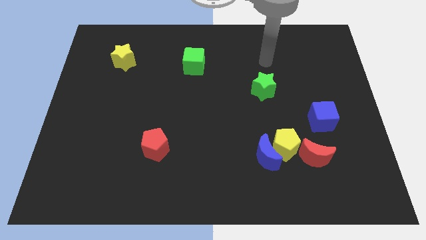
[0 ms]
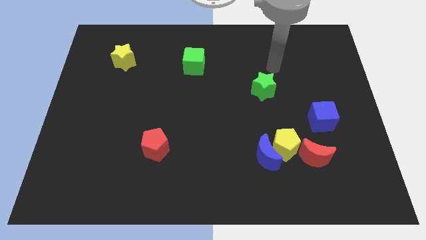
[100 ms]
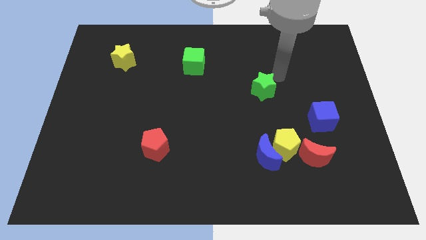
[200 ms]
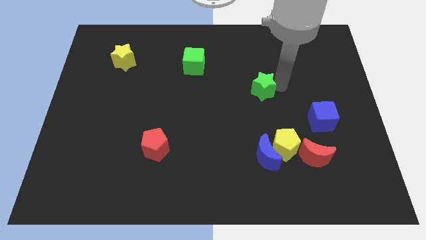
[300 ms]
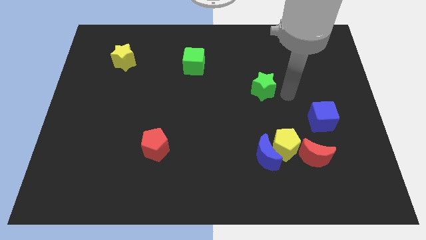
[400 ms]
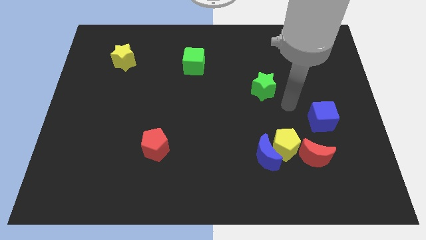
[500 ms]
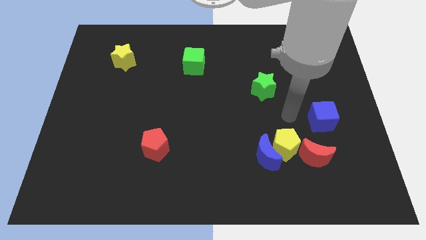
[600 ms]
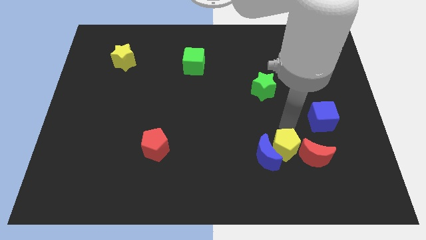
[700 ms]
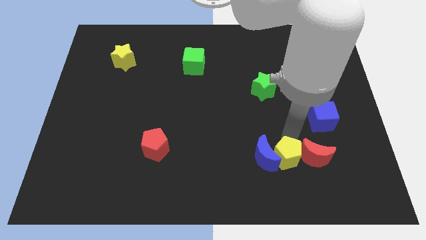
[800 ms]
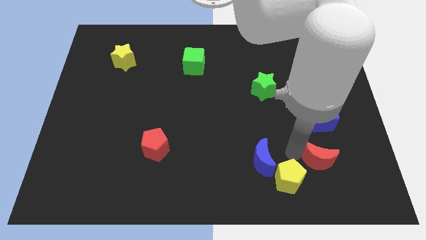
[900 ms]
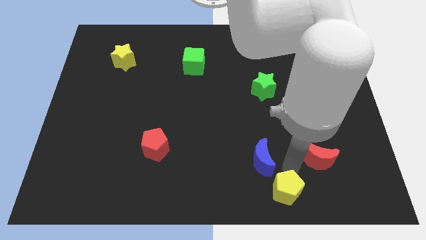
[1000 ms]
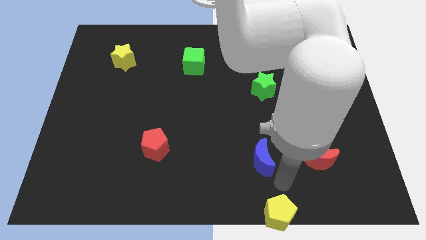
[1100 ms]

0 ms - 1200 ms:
pull the blue moon apart from the yellow pentagon

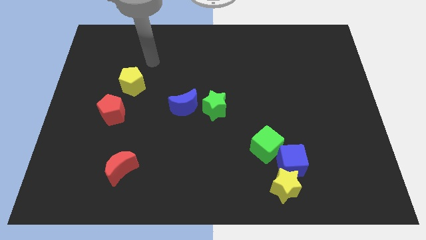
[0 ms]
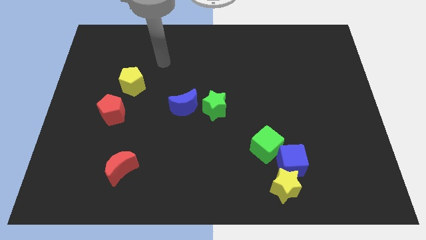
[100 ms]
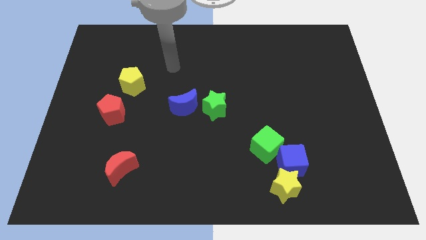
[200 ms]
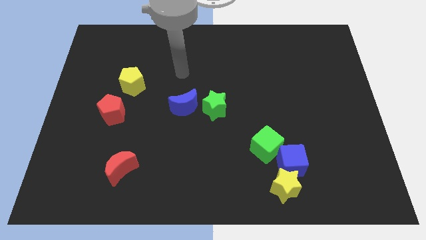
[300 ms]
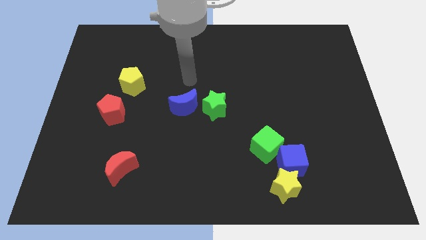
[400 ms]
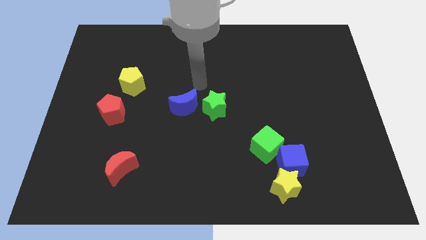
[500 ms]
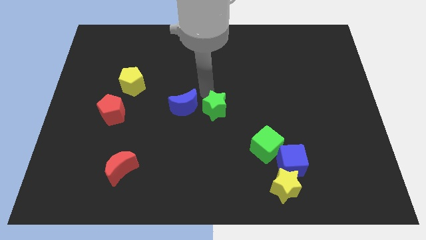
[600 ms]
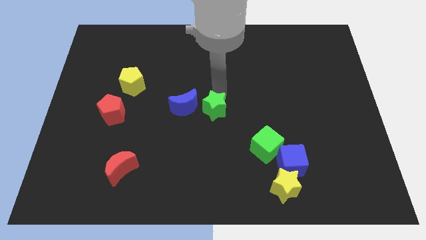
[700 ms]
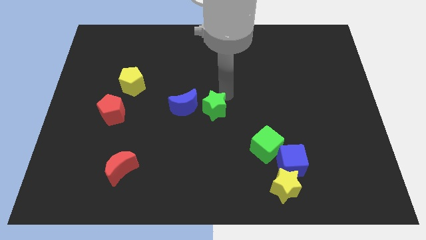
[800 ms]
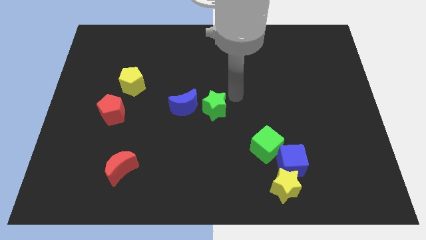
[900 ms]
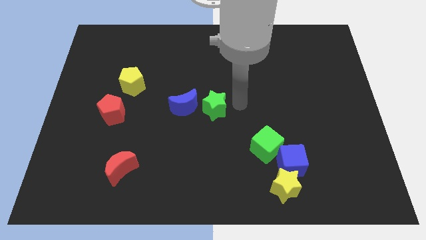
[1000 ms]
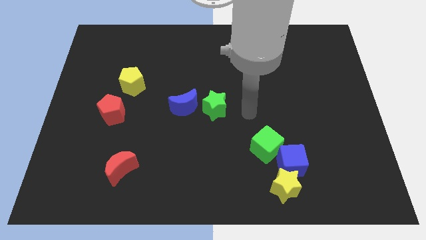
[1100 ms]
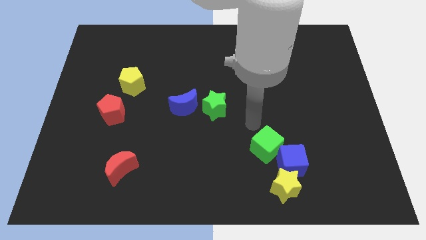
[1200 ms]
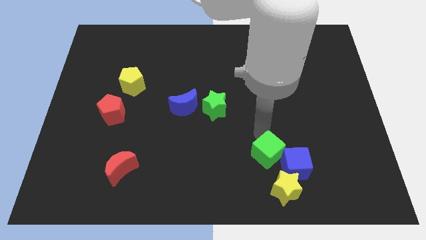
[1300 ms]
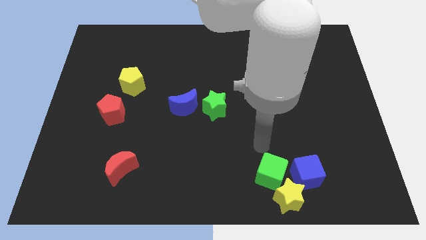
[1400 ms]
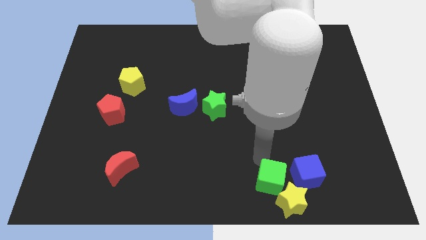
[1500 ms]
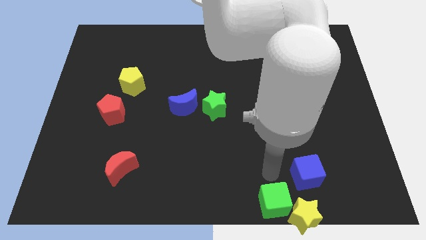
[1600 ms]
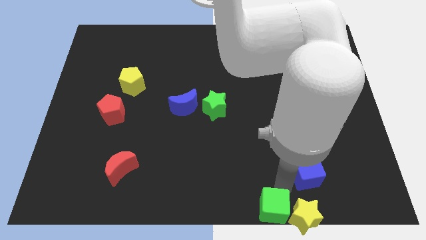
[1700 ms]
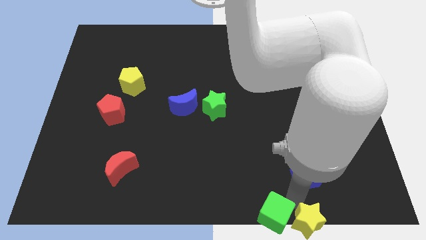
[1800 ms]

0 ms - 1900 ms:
move the blue cube away from the yellow star and green cube

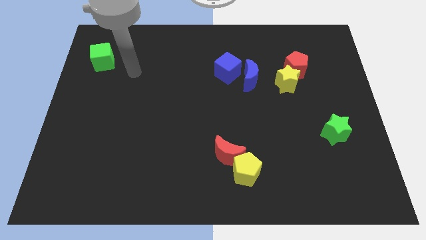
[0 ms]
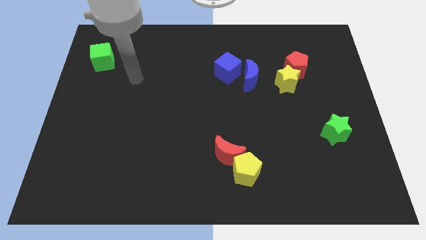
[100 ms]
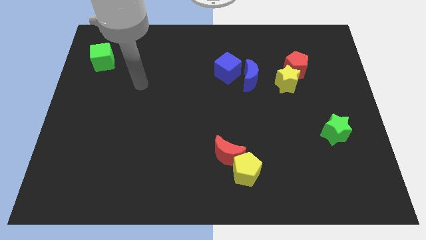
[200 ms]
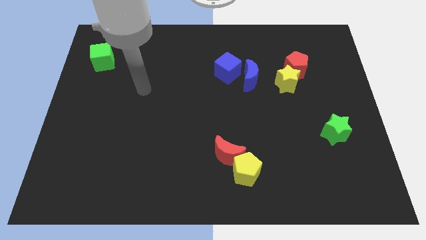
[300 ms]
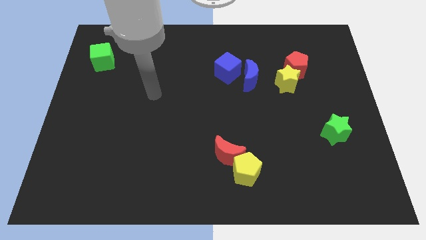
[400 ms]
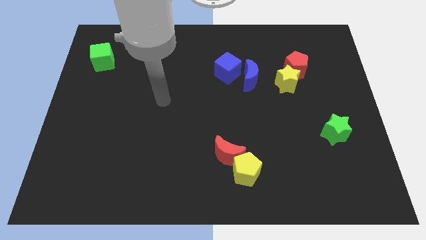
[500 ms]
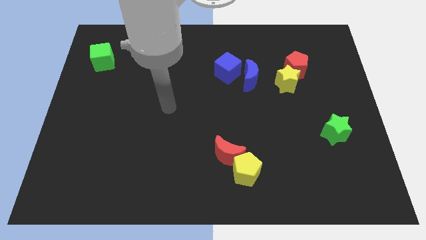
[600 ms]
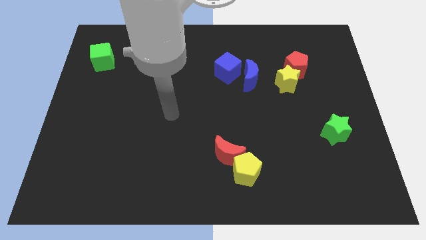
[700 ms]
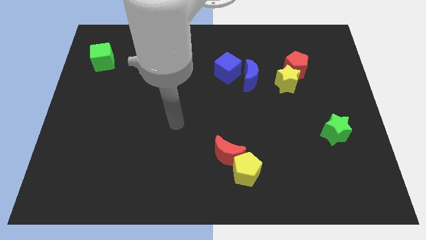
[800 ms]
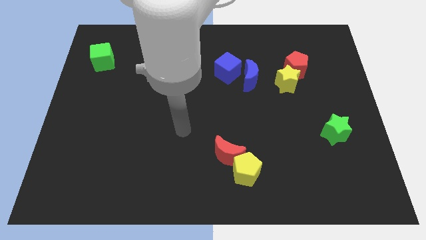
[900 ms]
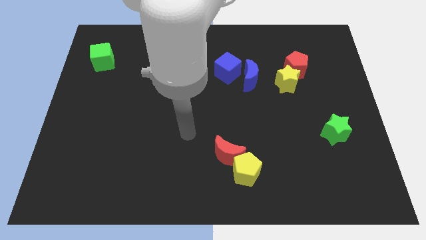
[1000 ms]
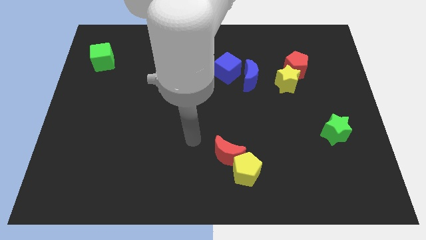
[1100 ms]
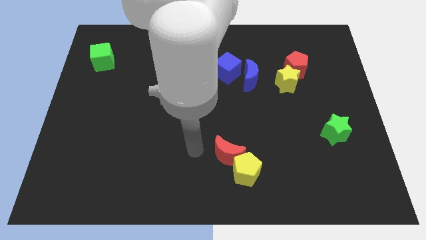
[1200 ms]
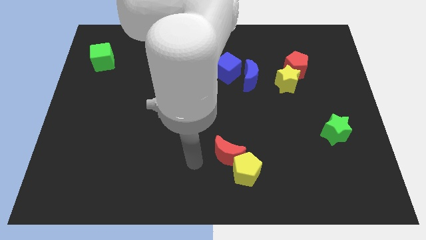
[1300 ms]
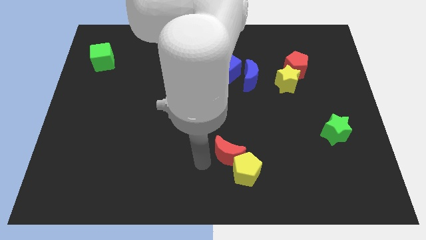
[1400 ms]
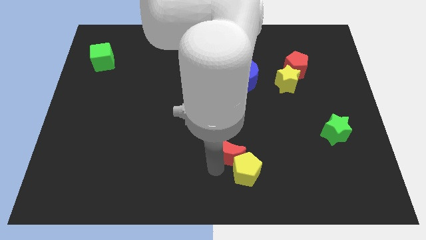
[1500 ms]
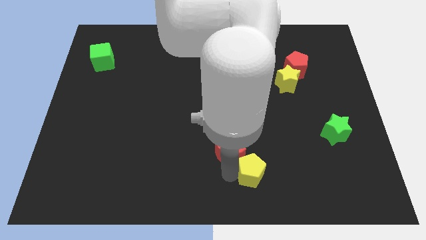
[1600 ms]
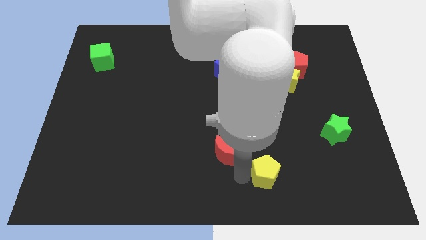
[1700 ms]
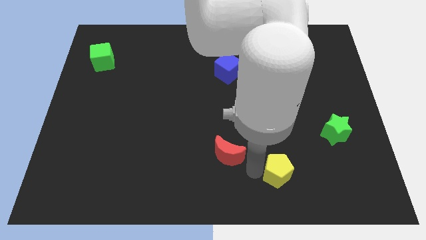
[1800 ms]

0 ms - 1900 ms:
pull the red moon apart from the yellow pentagon

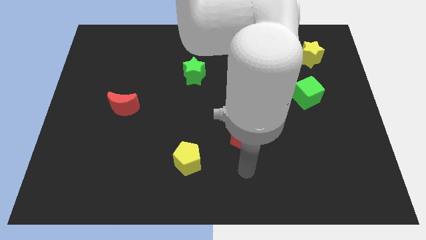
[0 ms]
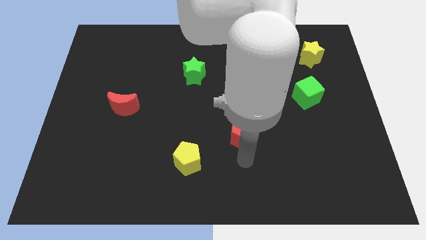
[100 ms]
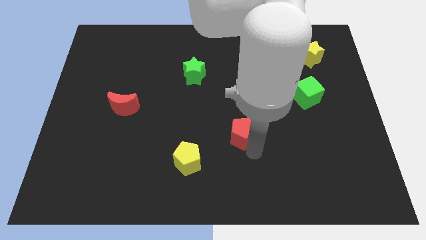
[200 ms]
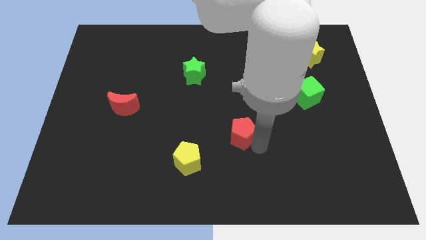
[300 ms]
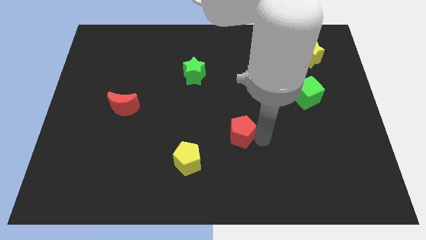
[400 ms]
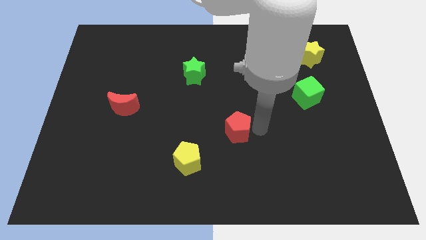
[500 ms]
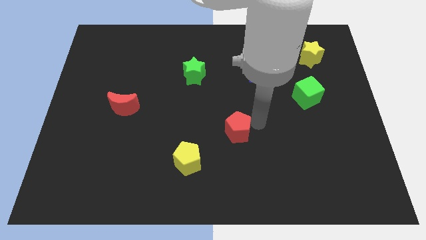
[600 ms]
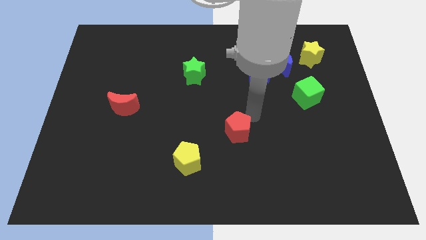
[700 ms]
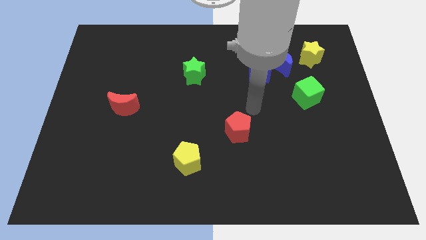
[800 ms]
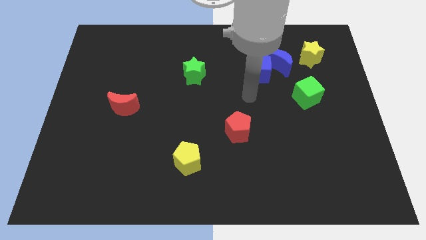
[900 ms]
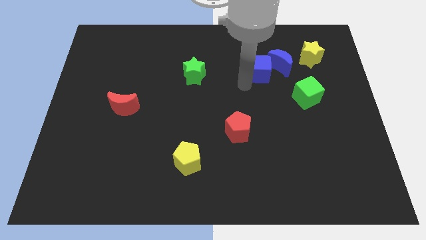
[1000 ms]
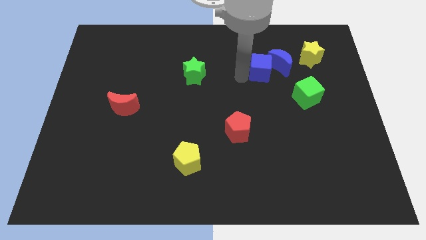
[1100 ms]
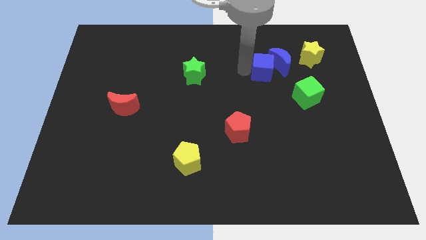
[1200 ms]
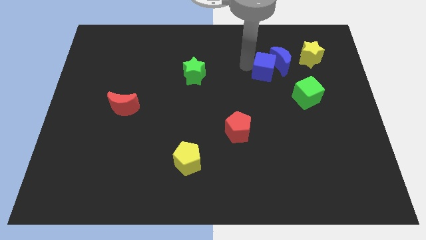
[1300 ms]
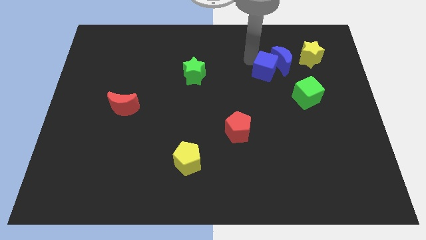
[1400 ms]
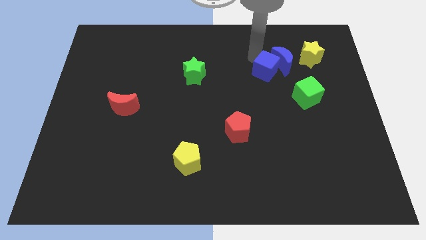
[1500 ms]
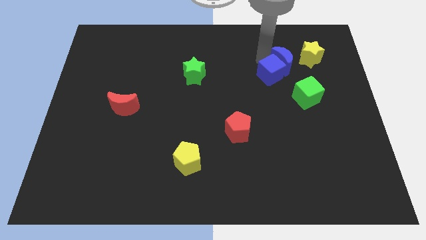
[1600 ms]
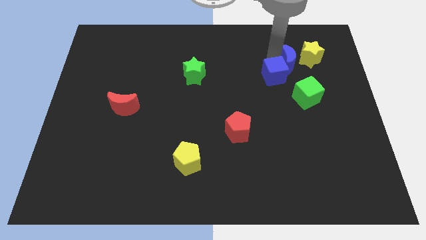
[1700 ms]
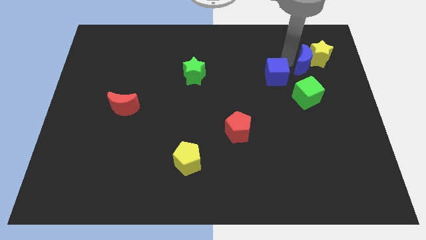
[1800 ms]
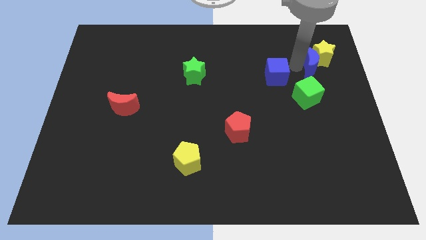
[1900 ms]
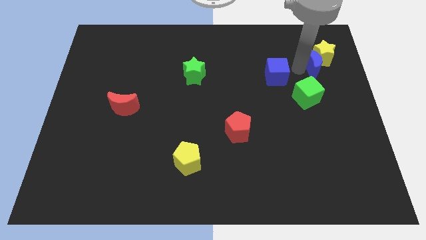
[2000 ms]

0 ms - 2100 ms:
move the blue cube away from the blue moon

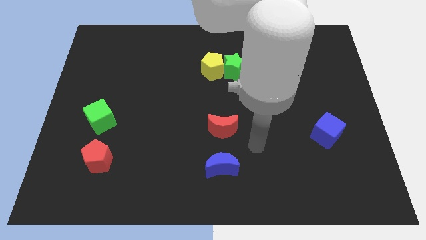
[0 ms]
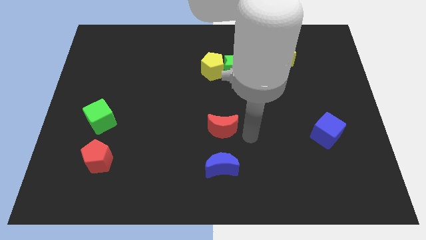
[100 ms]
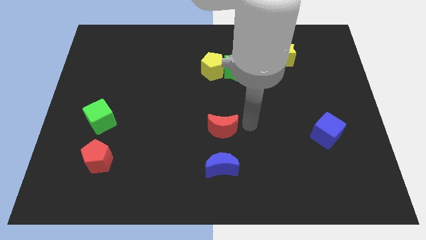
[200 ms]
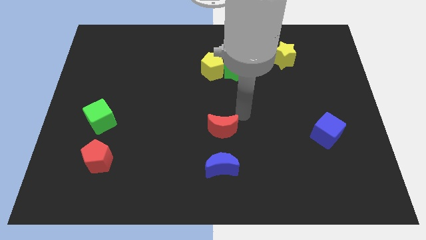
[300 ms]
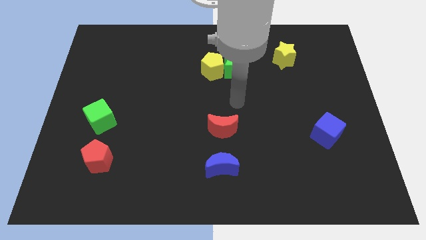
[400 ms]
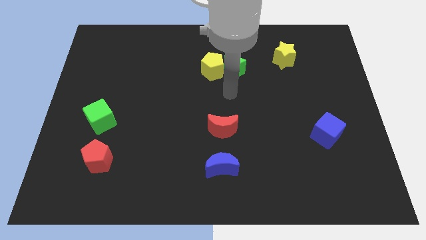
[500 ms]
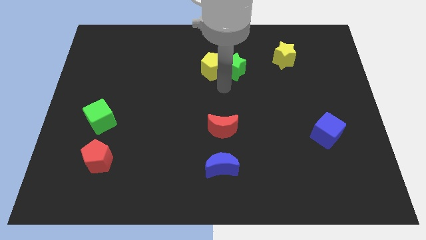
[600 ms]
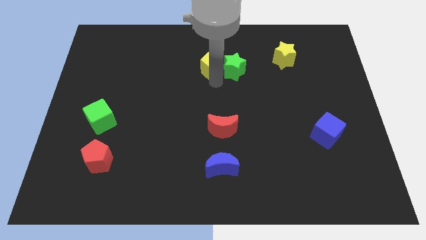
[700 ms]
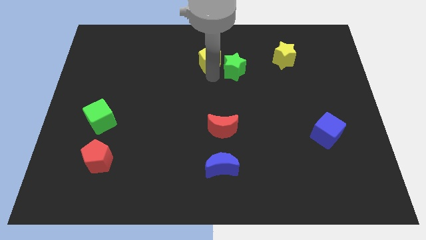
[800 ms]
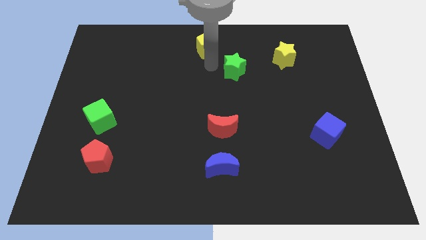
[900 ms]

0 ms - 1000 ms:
move the green star away from the yellow pentagon

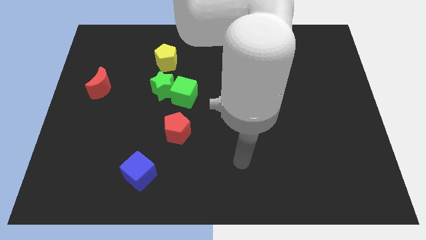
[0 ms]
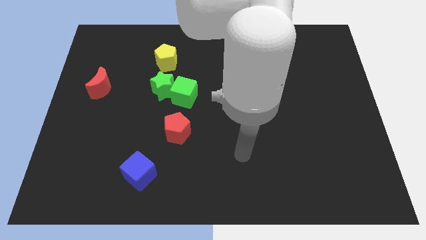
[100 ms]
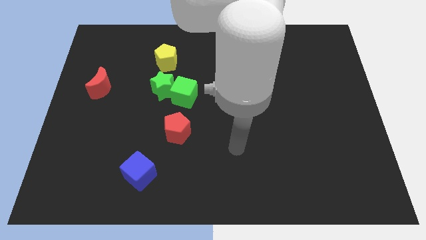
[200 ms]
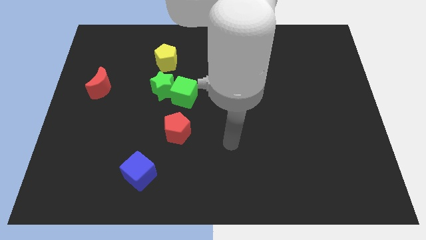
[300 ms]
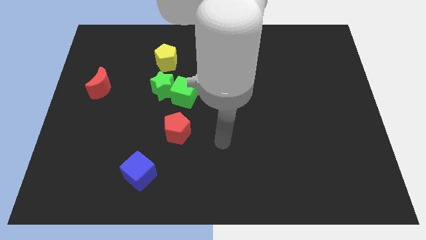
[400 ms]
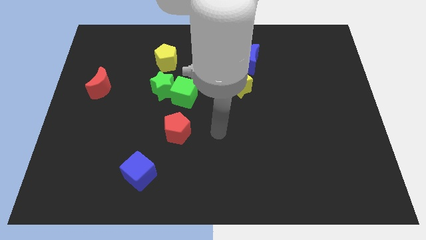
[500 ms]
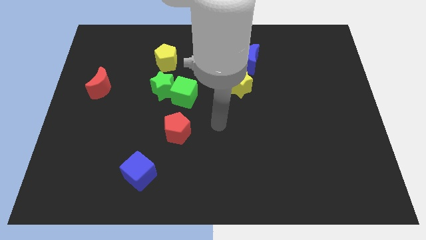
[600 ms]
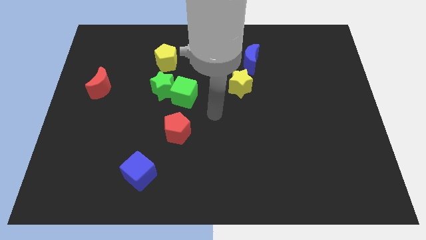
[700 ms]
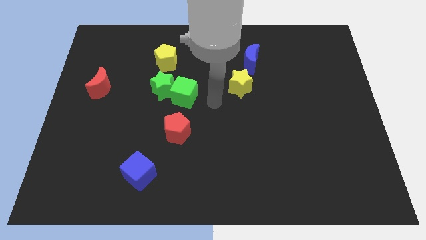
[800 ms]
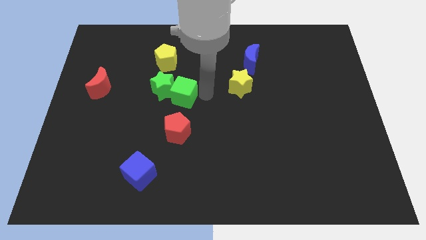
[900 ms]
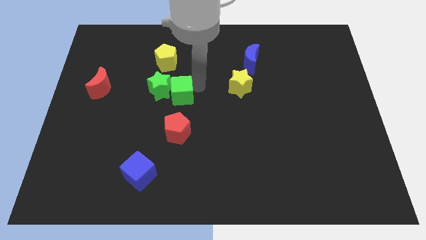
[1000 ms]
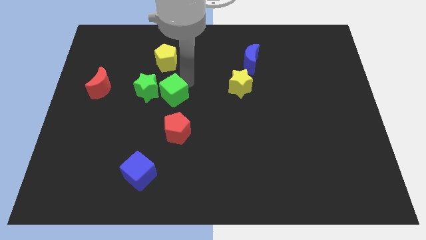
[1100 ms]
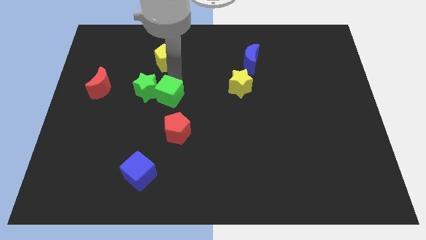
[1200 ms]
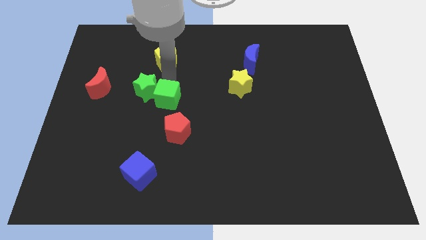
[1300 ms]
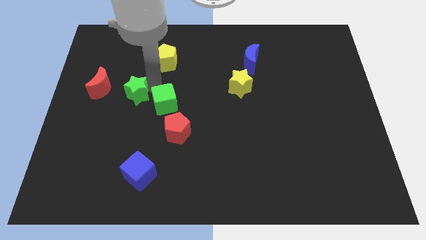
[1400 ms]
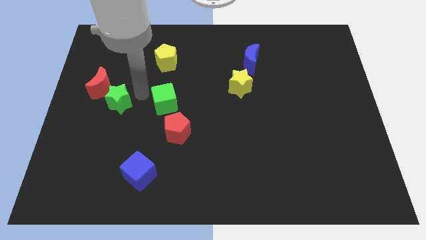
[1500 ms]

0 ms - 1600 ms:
move the green cube away from the green star
